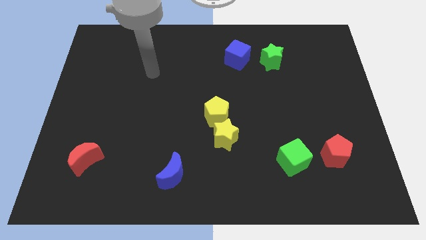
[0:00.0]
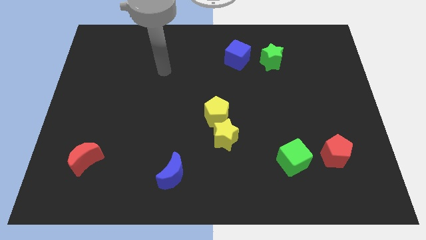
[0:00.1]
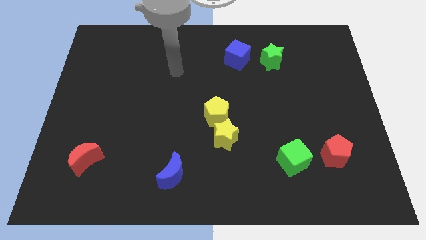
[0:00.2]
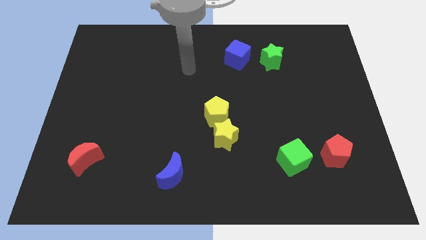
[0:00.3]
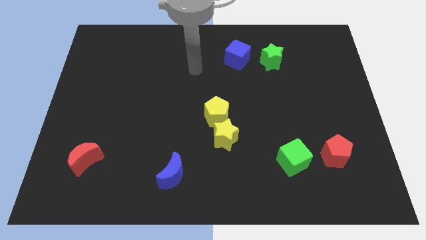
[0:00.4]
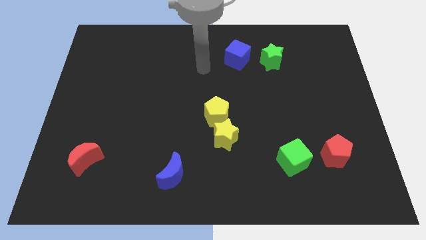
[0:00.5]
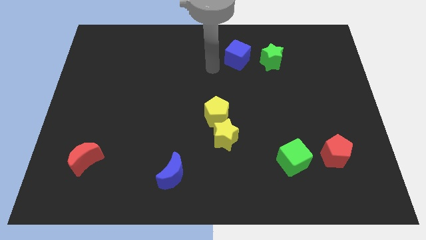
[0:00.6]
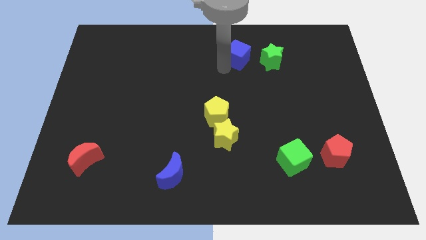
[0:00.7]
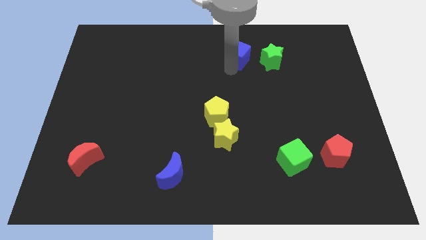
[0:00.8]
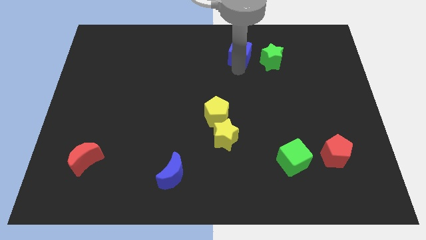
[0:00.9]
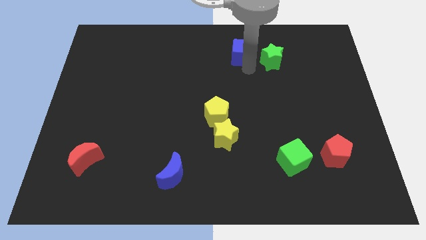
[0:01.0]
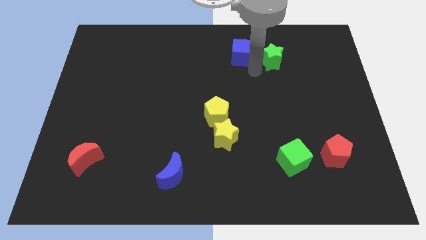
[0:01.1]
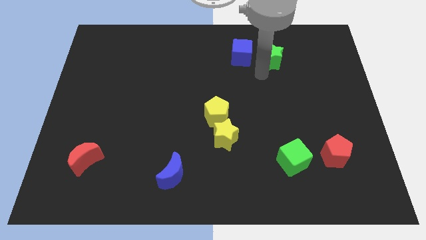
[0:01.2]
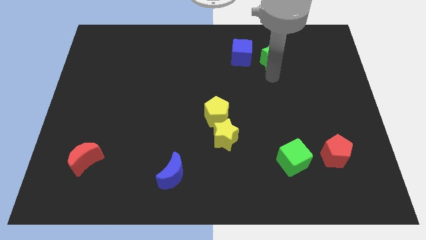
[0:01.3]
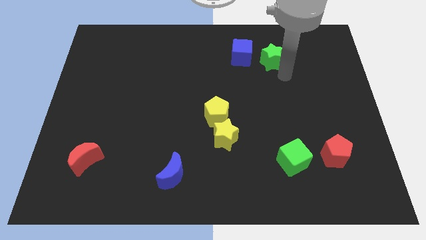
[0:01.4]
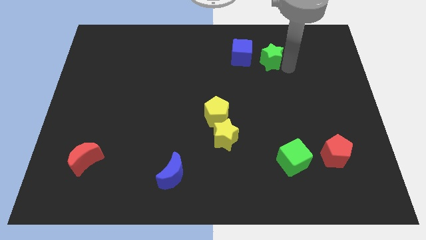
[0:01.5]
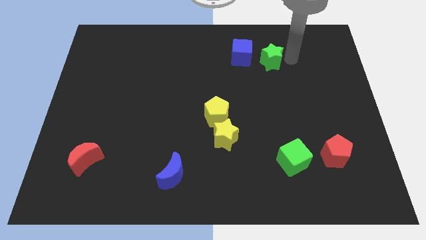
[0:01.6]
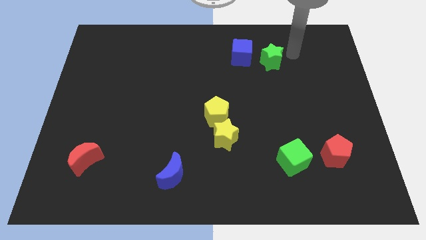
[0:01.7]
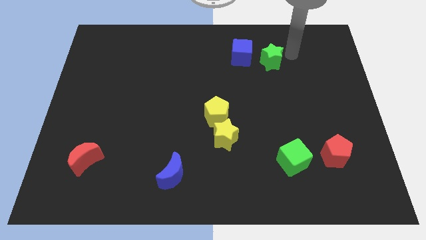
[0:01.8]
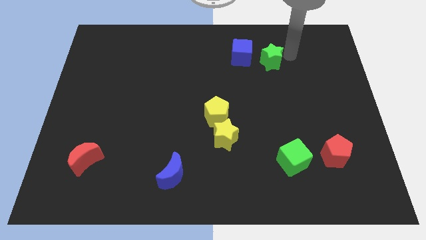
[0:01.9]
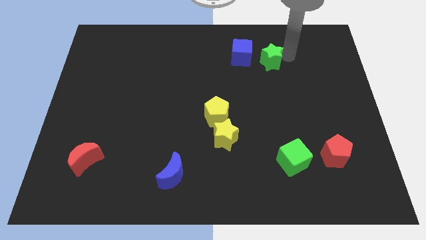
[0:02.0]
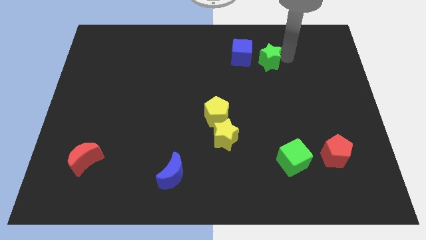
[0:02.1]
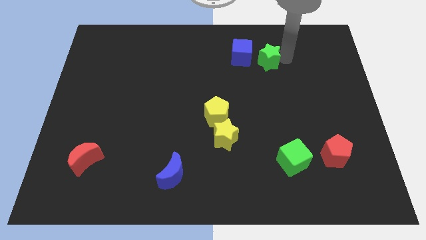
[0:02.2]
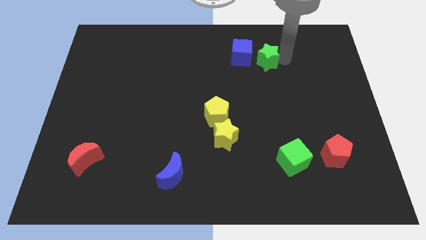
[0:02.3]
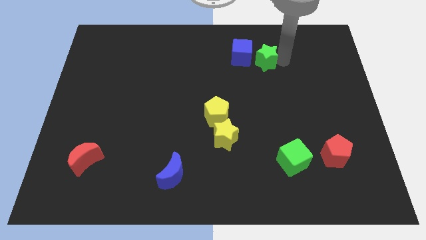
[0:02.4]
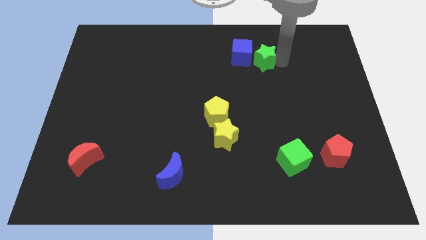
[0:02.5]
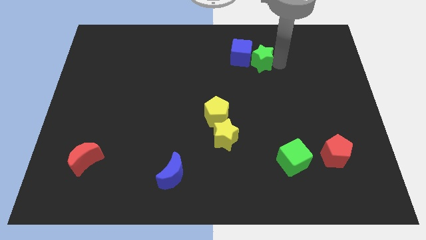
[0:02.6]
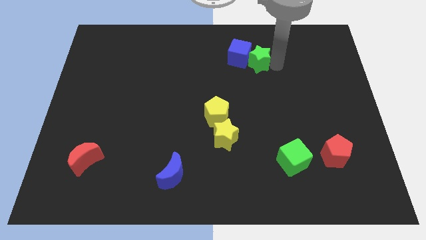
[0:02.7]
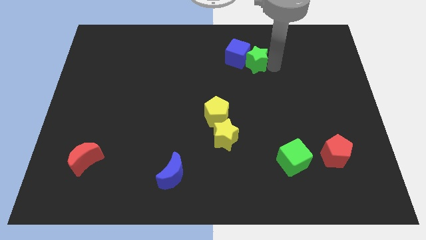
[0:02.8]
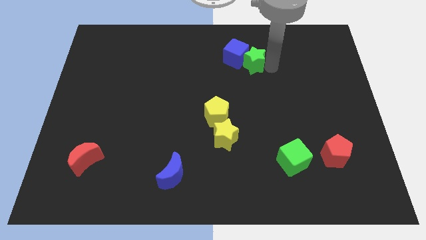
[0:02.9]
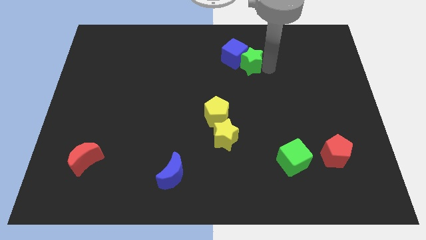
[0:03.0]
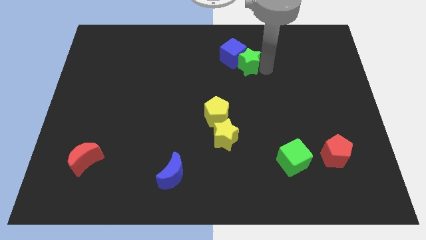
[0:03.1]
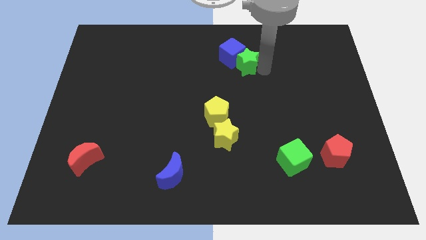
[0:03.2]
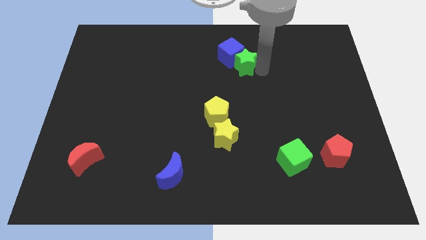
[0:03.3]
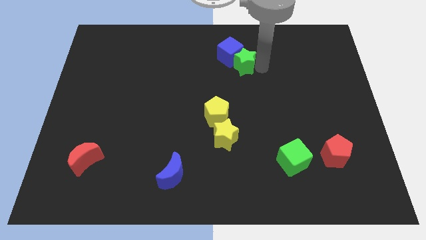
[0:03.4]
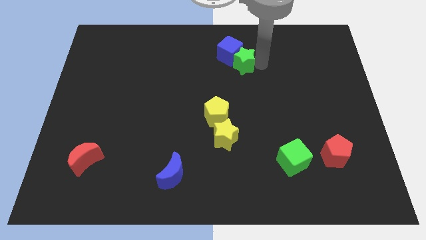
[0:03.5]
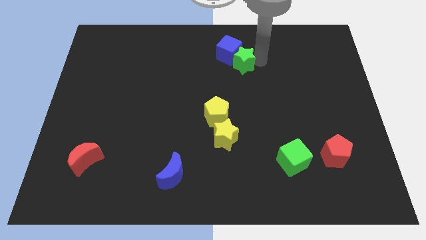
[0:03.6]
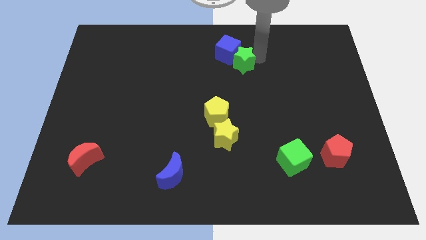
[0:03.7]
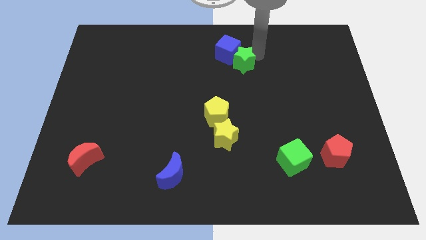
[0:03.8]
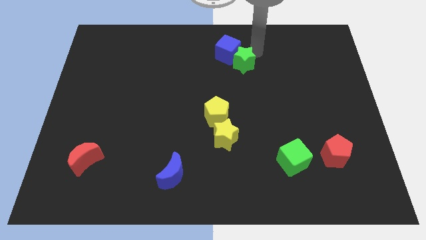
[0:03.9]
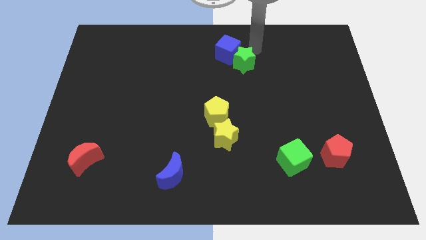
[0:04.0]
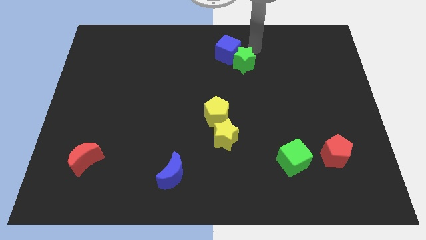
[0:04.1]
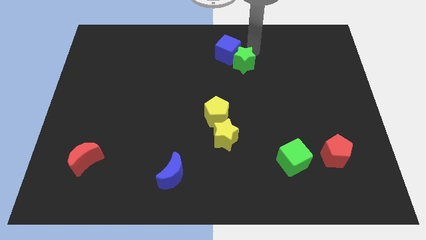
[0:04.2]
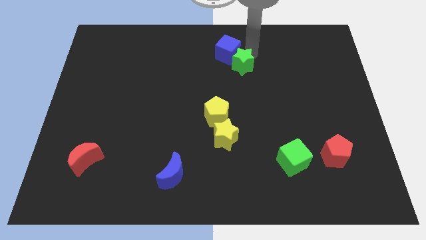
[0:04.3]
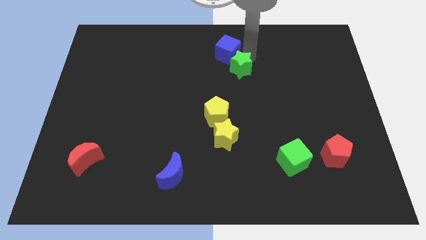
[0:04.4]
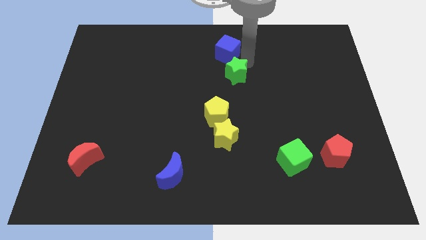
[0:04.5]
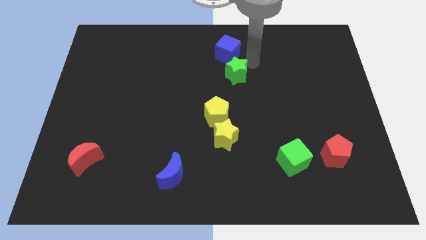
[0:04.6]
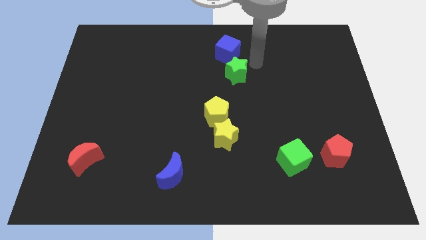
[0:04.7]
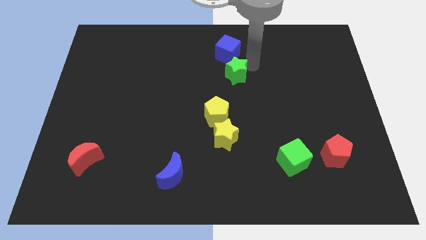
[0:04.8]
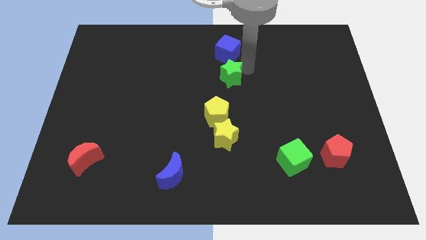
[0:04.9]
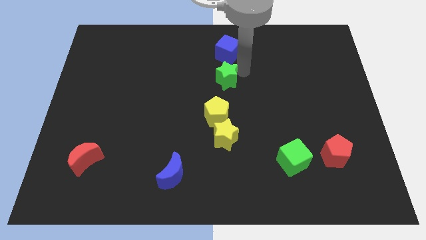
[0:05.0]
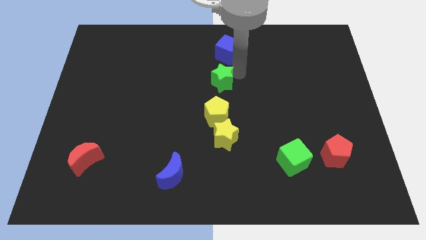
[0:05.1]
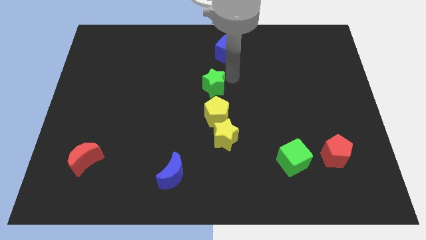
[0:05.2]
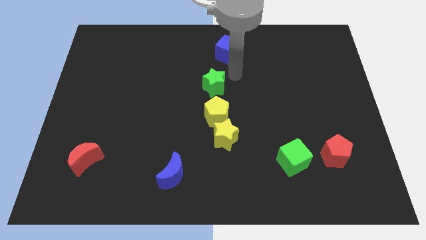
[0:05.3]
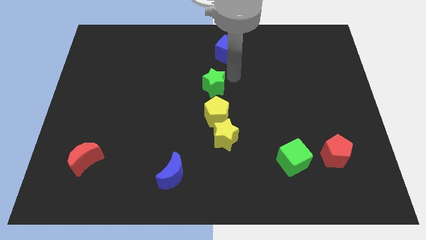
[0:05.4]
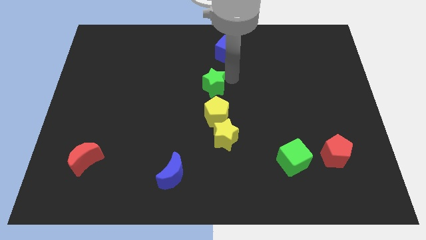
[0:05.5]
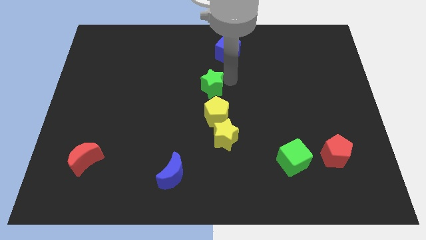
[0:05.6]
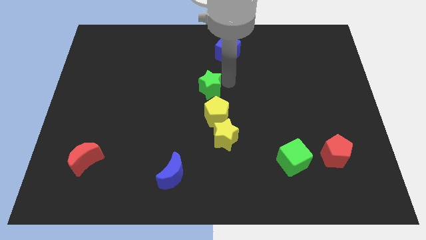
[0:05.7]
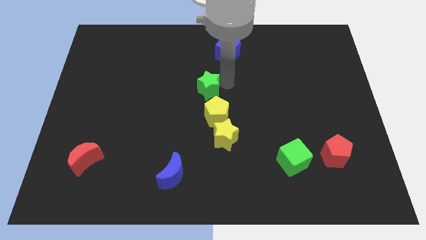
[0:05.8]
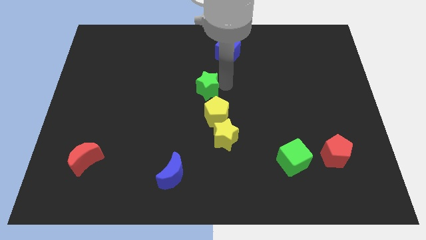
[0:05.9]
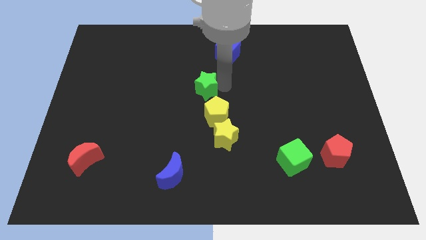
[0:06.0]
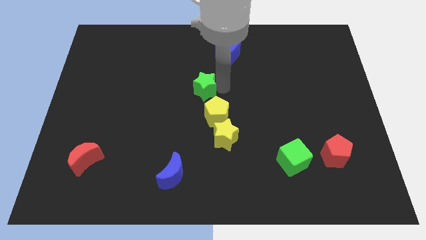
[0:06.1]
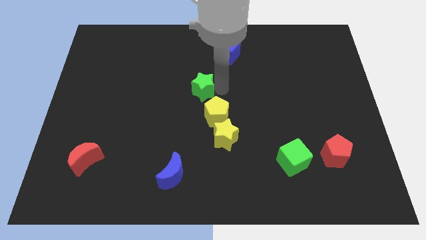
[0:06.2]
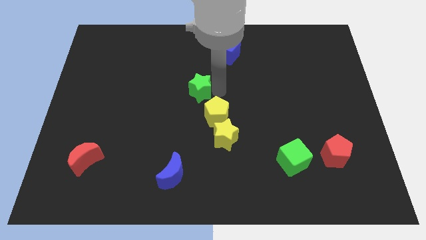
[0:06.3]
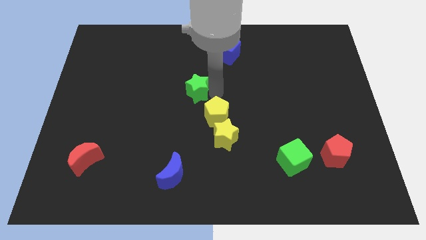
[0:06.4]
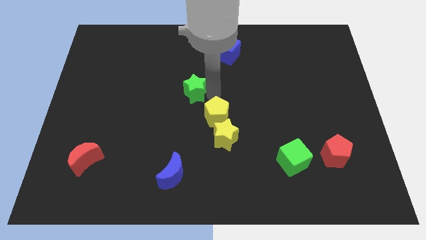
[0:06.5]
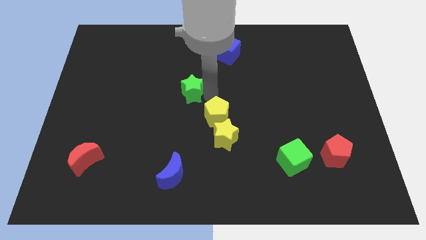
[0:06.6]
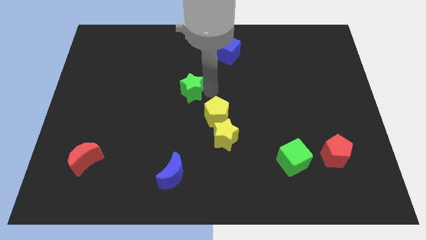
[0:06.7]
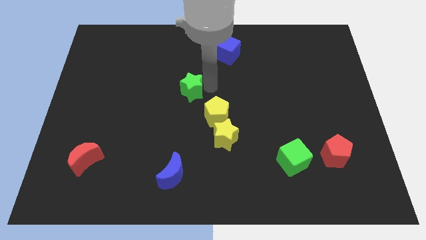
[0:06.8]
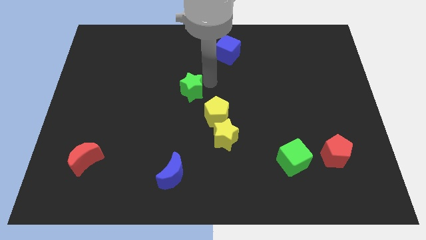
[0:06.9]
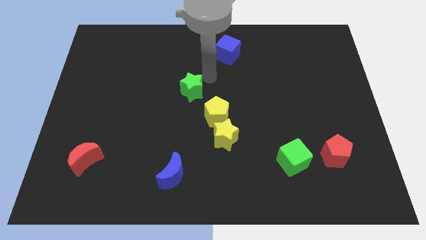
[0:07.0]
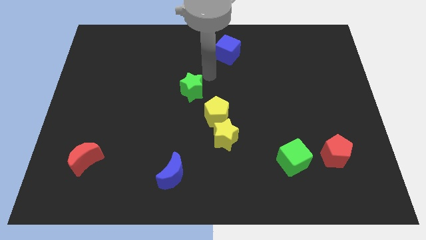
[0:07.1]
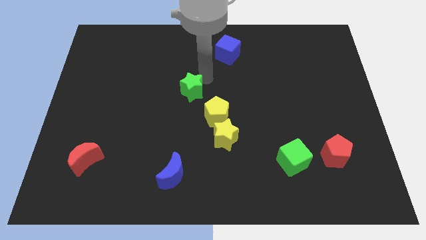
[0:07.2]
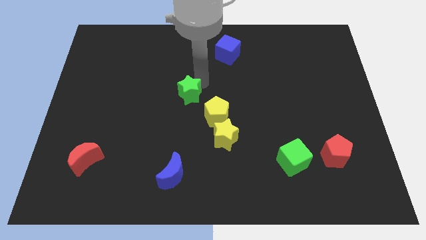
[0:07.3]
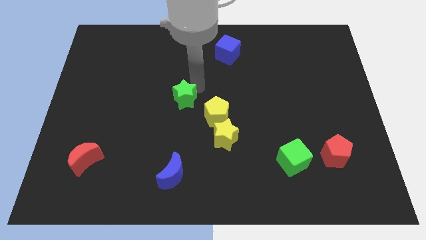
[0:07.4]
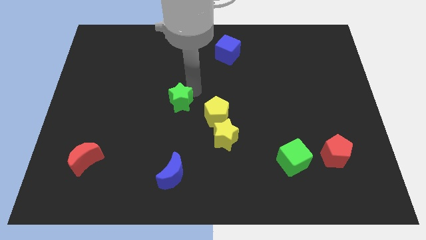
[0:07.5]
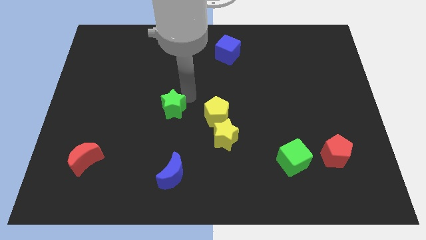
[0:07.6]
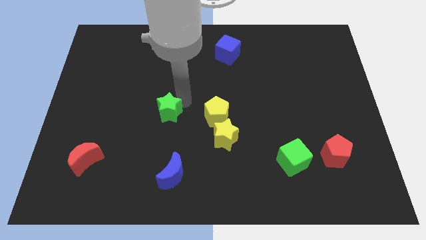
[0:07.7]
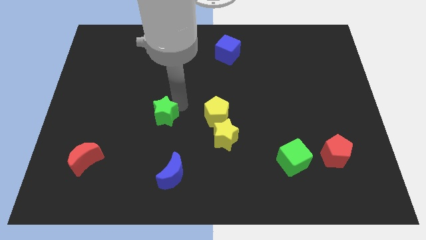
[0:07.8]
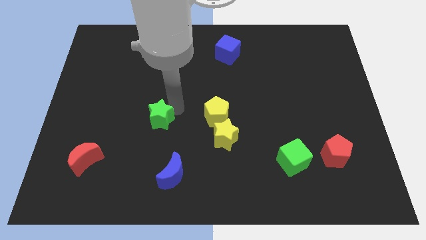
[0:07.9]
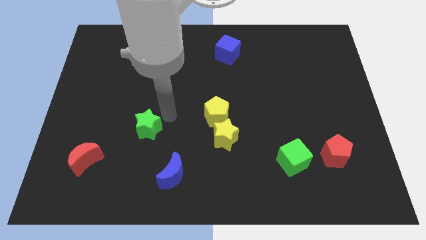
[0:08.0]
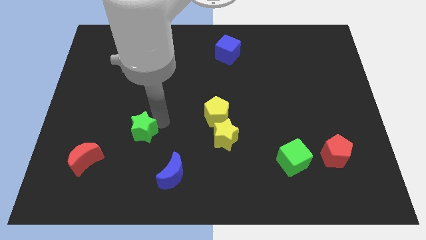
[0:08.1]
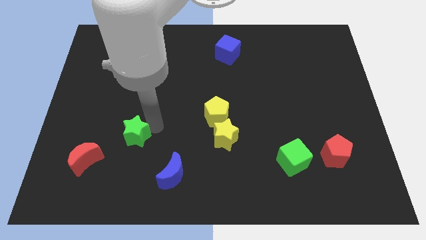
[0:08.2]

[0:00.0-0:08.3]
slide the green star to the top right side of the red moon
